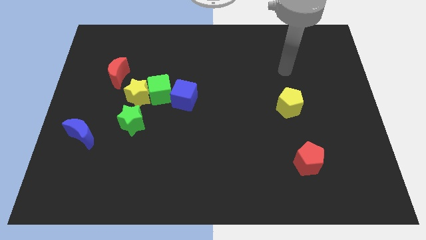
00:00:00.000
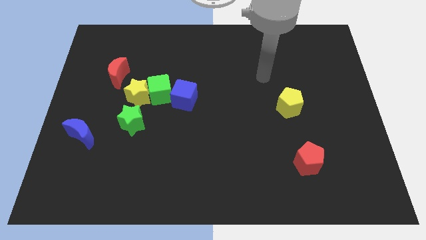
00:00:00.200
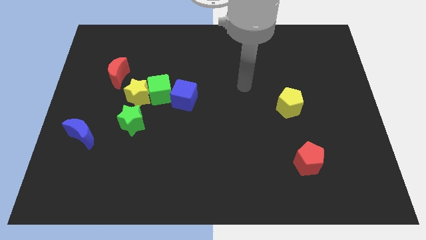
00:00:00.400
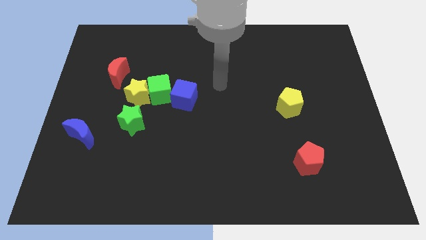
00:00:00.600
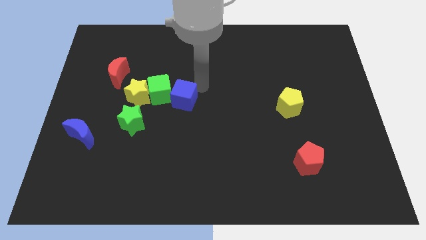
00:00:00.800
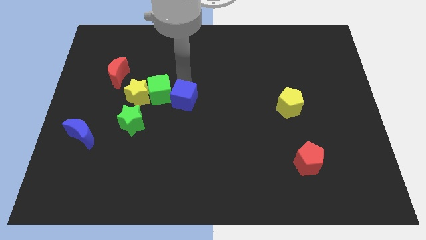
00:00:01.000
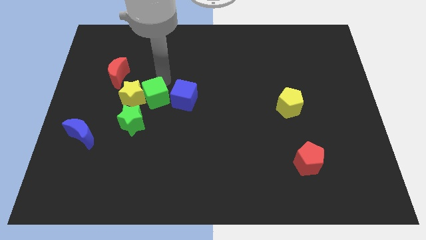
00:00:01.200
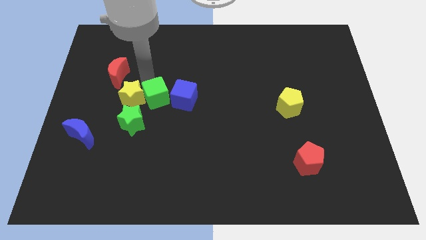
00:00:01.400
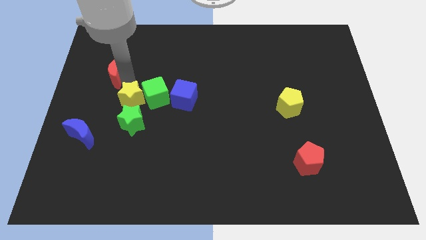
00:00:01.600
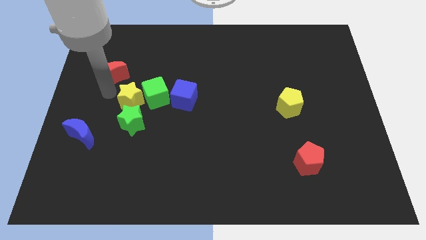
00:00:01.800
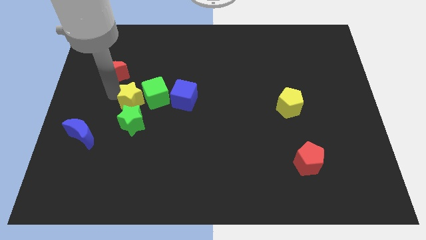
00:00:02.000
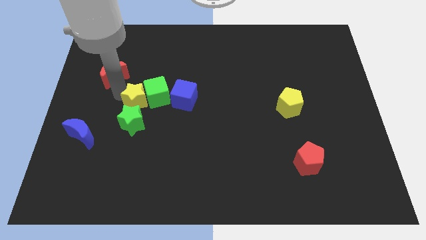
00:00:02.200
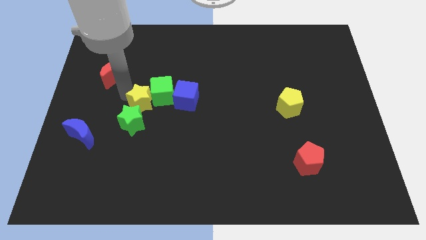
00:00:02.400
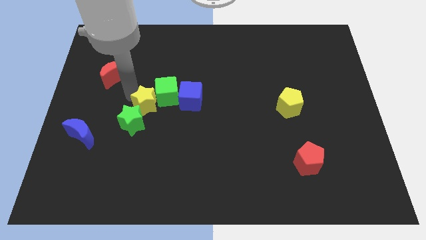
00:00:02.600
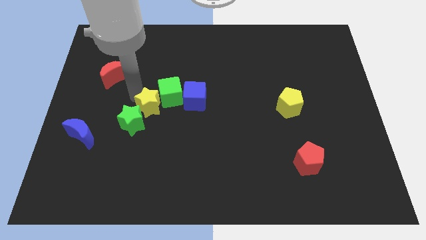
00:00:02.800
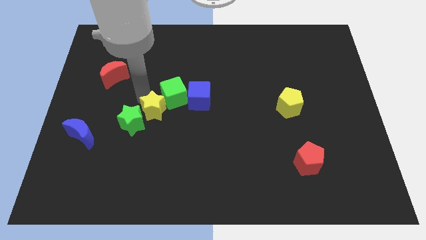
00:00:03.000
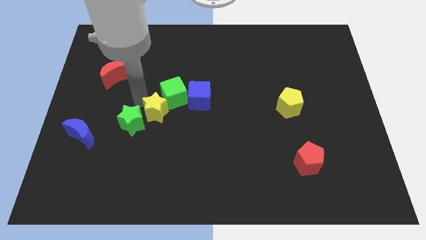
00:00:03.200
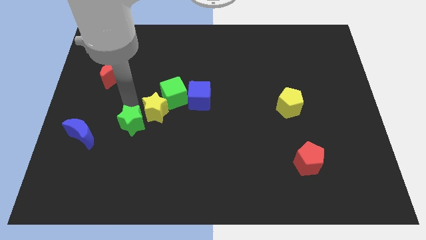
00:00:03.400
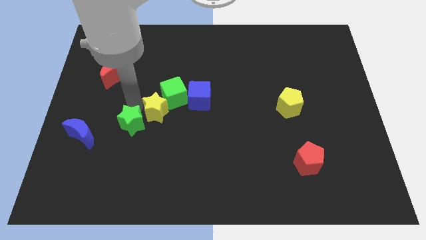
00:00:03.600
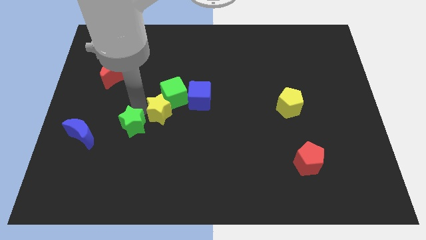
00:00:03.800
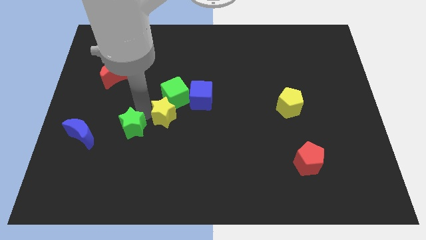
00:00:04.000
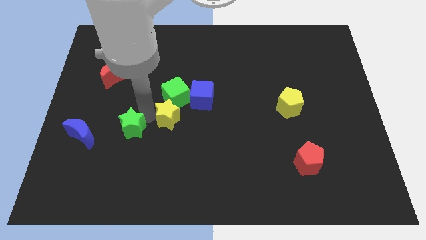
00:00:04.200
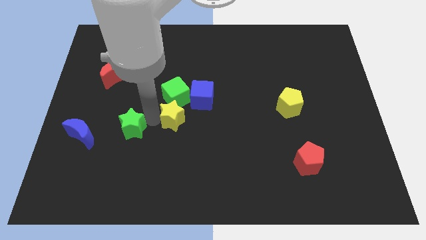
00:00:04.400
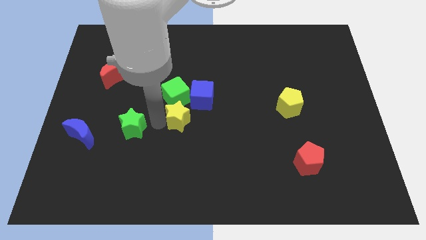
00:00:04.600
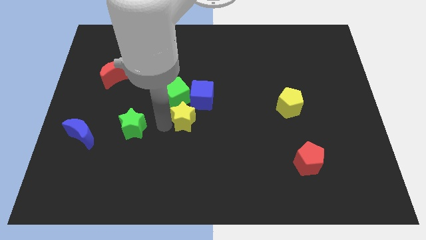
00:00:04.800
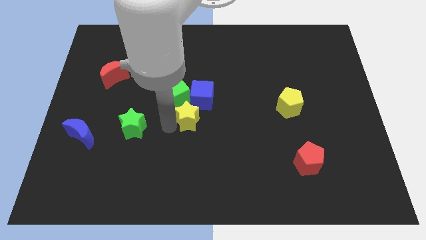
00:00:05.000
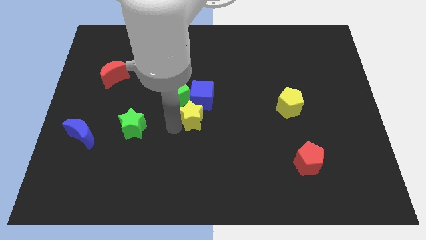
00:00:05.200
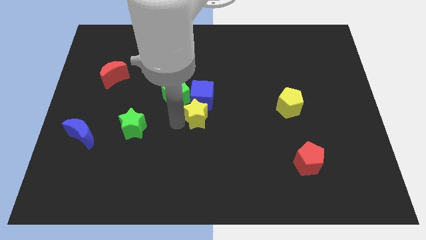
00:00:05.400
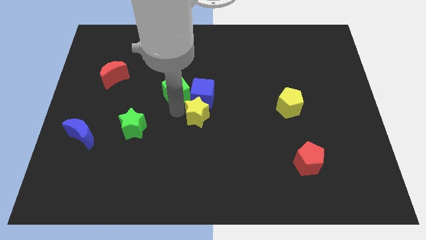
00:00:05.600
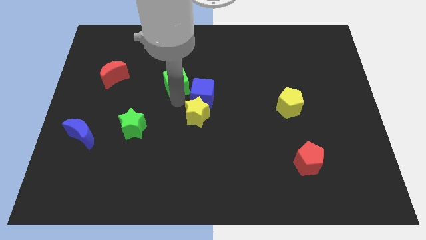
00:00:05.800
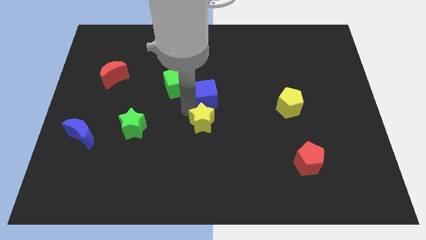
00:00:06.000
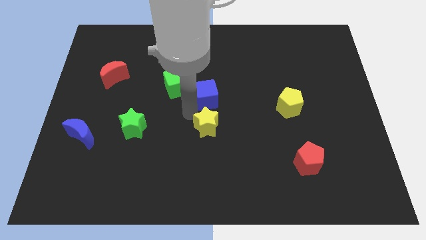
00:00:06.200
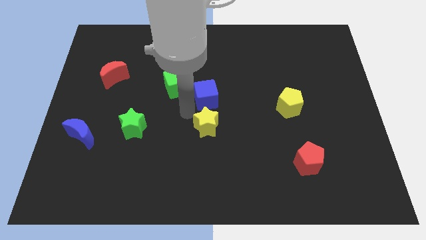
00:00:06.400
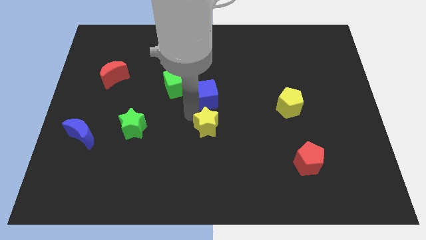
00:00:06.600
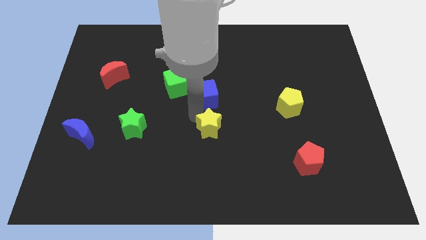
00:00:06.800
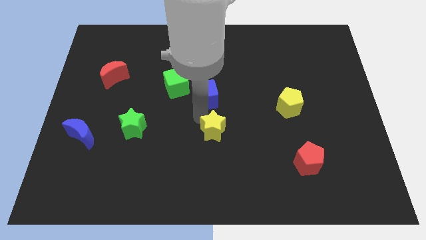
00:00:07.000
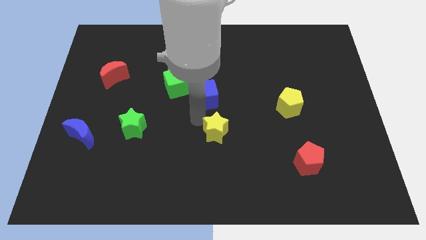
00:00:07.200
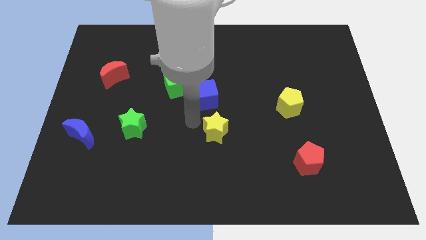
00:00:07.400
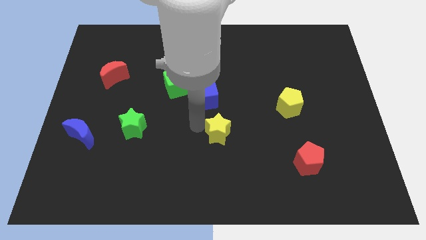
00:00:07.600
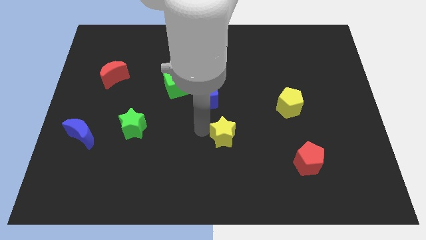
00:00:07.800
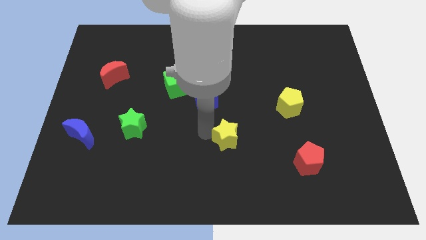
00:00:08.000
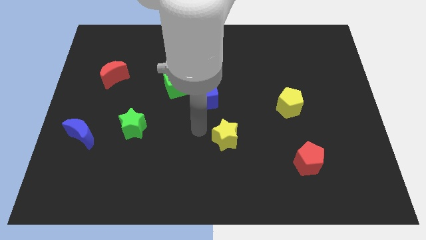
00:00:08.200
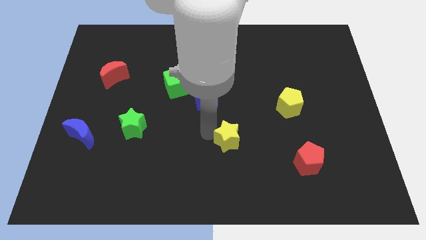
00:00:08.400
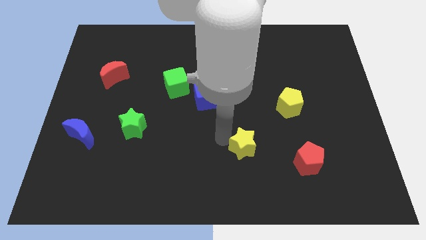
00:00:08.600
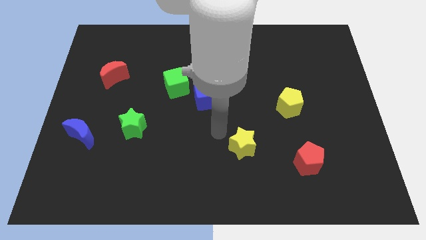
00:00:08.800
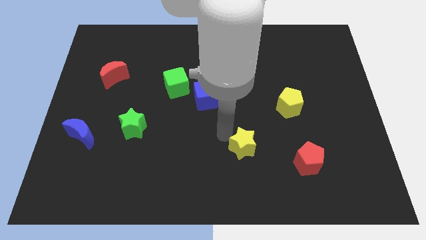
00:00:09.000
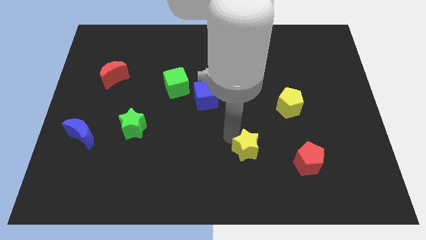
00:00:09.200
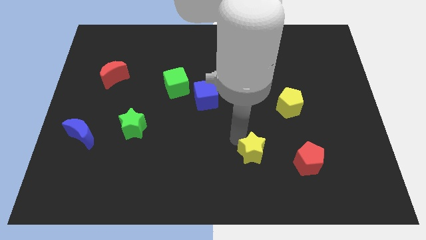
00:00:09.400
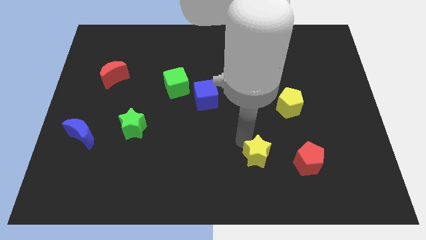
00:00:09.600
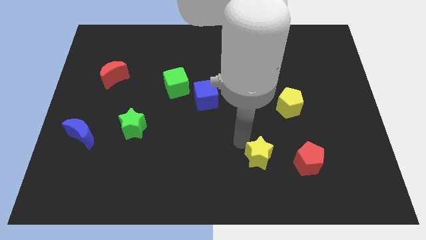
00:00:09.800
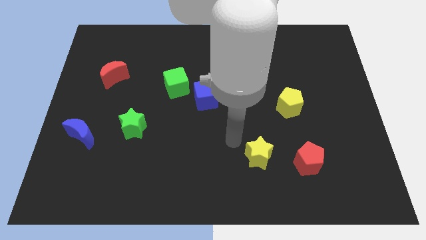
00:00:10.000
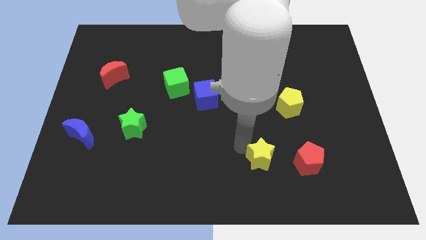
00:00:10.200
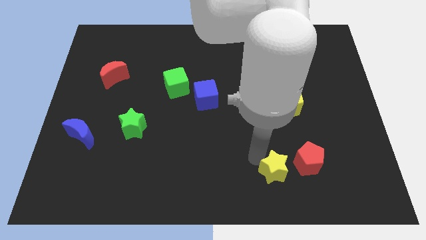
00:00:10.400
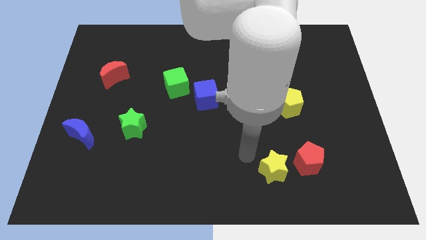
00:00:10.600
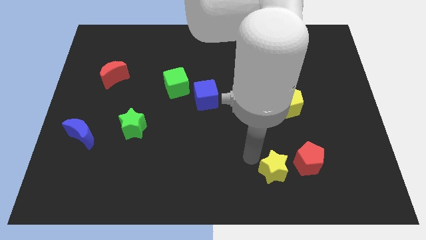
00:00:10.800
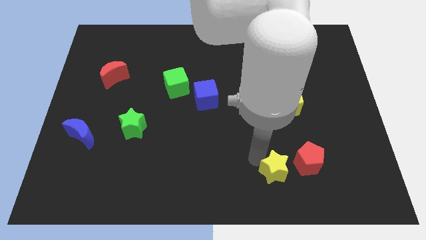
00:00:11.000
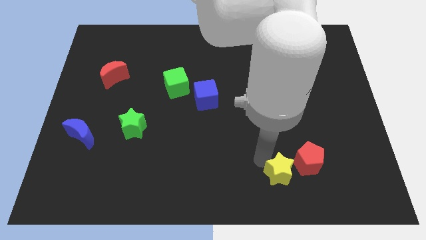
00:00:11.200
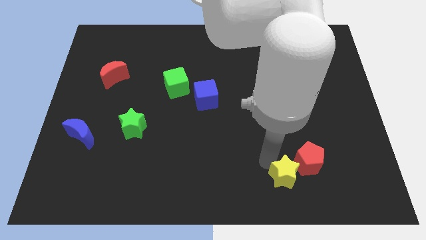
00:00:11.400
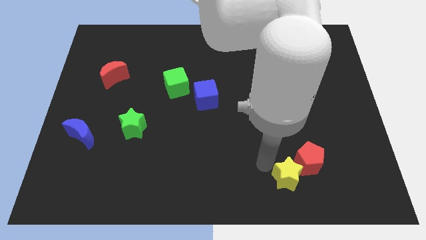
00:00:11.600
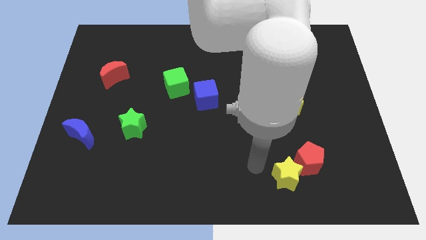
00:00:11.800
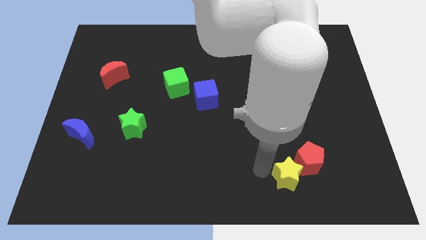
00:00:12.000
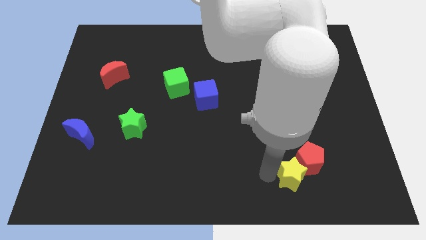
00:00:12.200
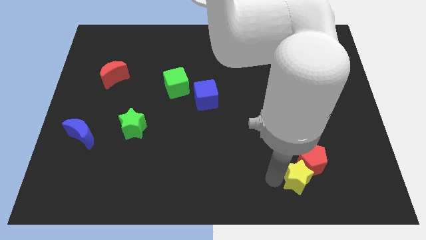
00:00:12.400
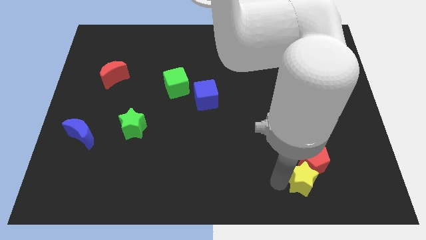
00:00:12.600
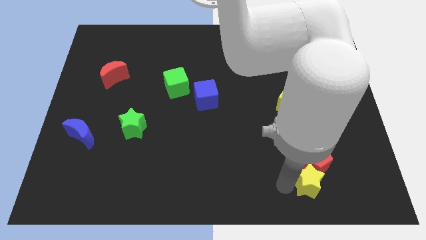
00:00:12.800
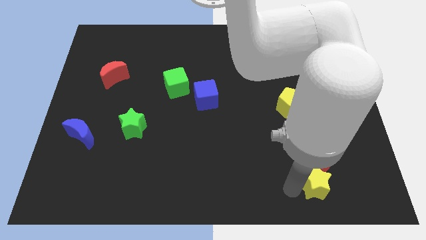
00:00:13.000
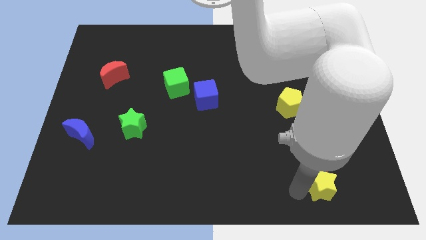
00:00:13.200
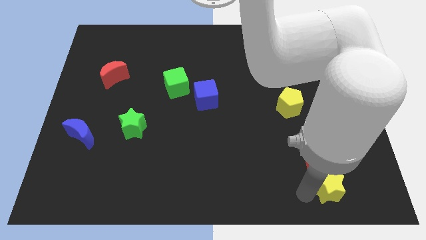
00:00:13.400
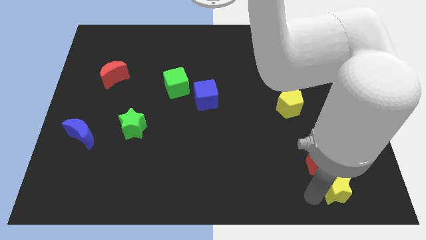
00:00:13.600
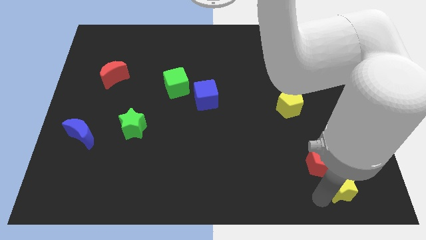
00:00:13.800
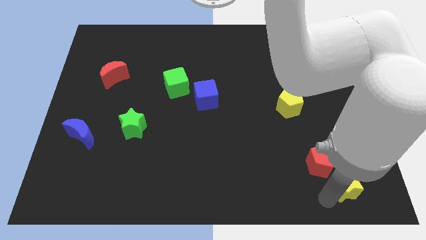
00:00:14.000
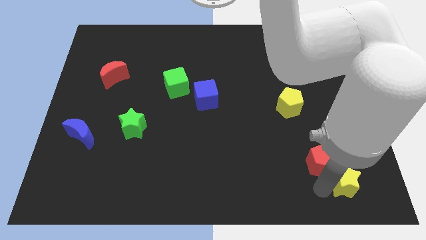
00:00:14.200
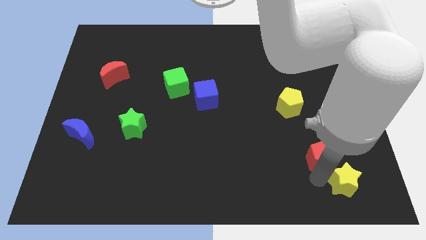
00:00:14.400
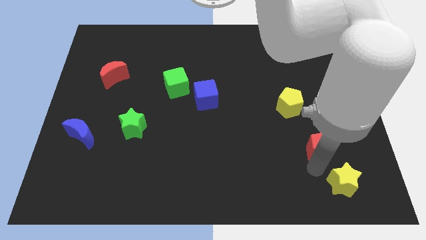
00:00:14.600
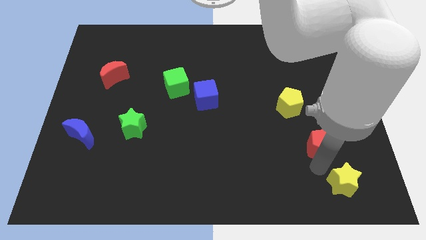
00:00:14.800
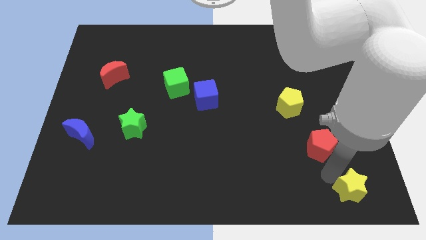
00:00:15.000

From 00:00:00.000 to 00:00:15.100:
move the yellow star to the bottom right of the board
